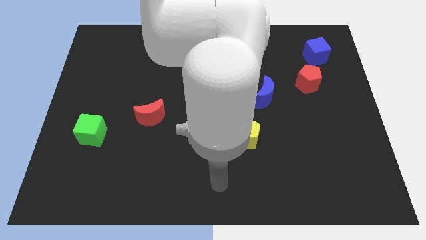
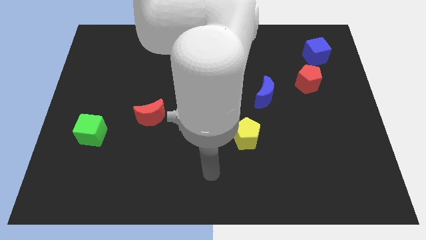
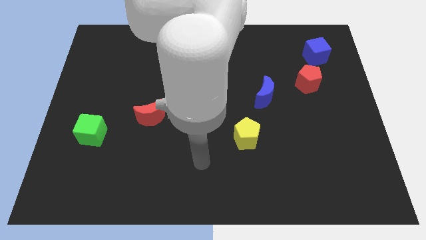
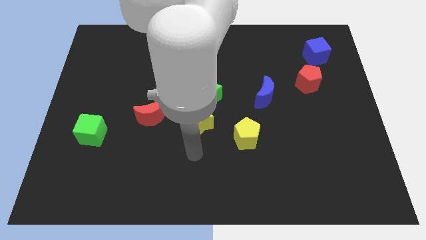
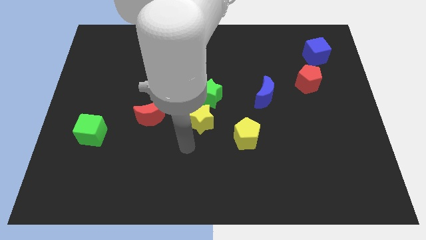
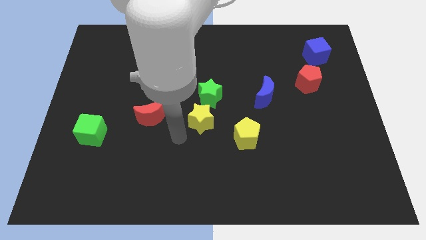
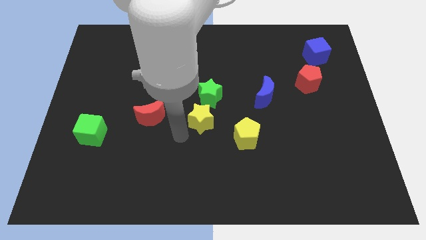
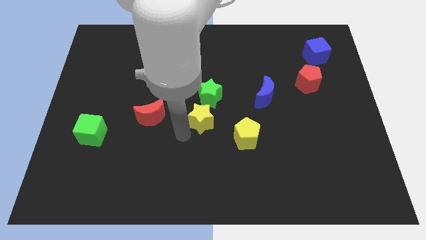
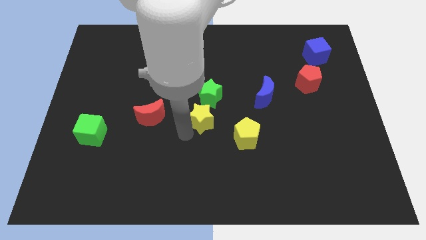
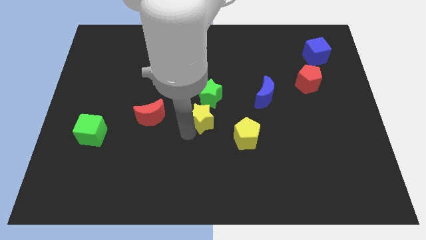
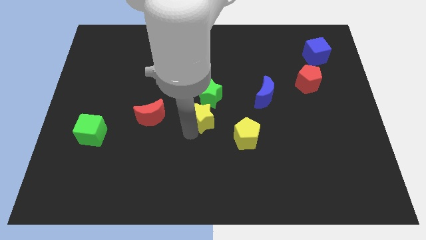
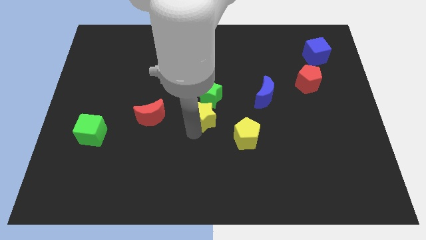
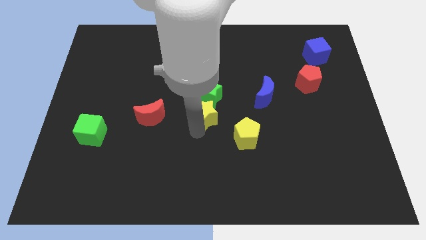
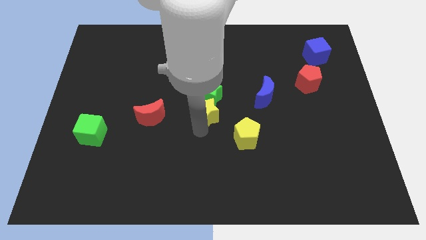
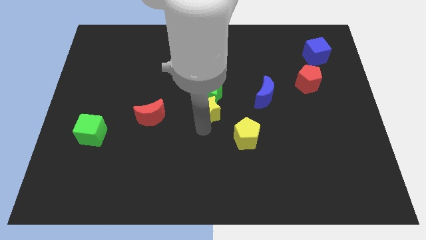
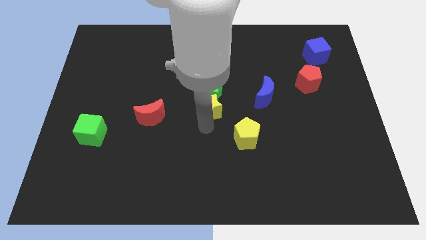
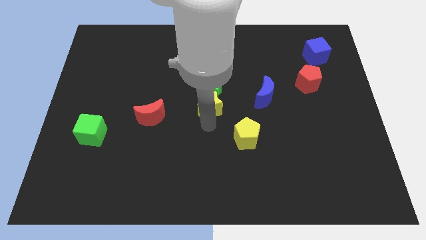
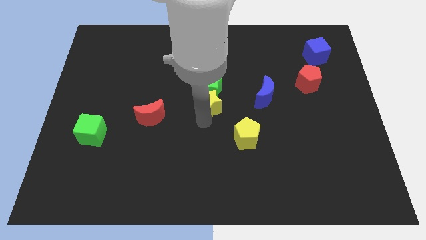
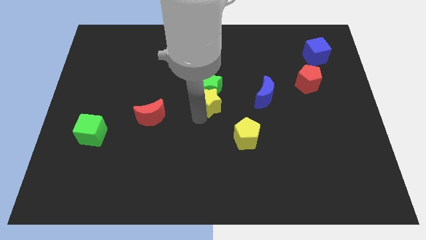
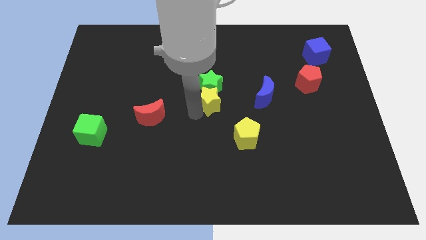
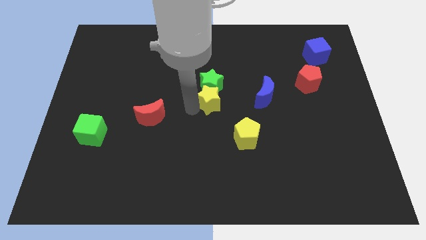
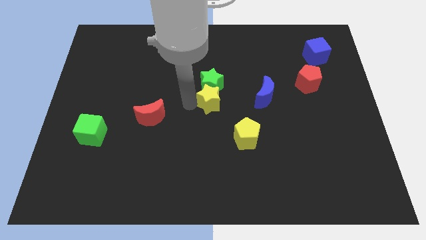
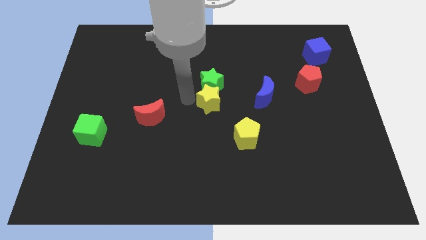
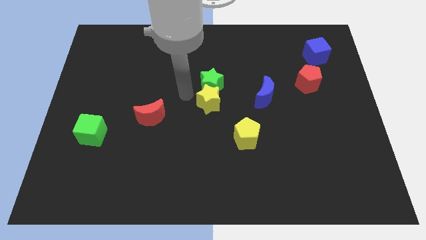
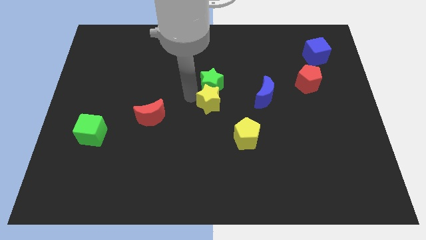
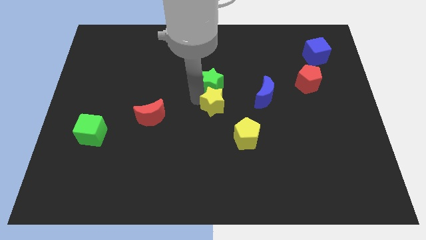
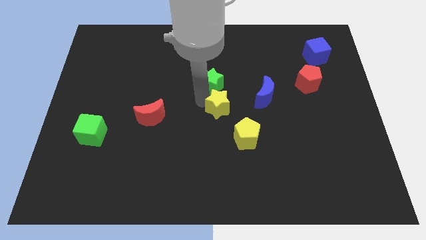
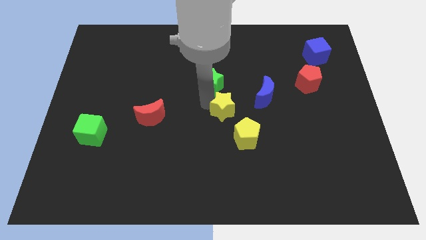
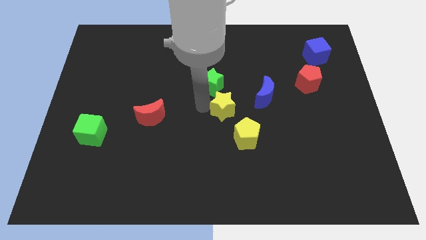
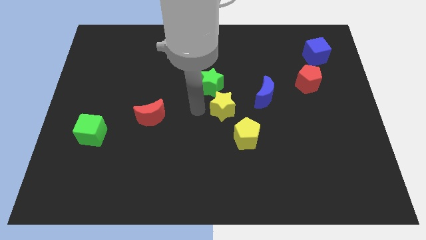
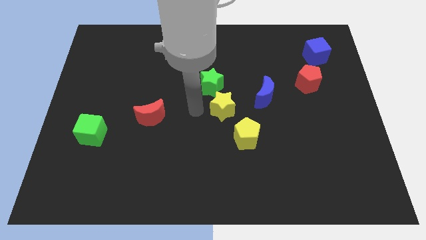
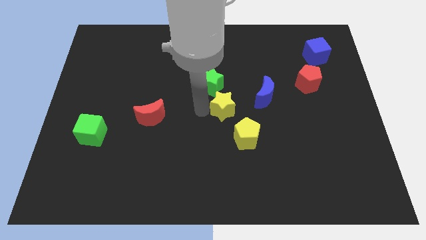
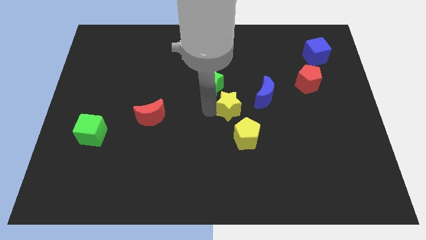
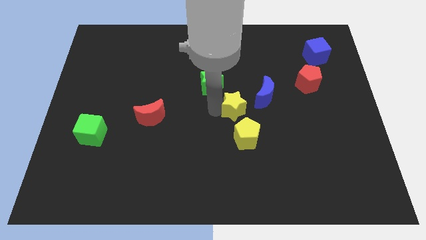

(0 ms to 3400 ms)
move the yellow star a bit right

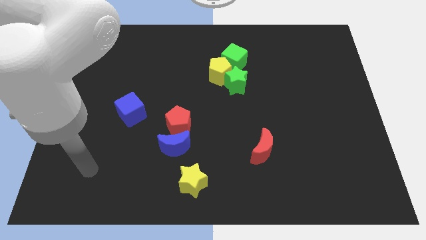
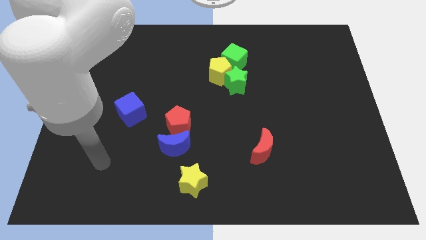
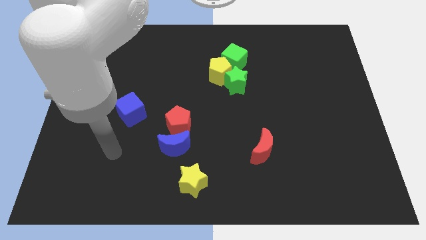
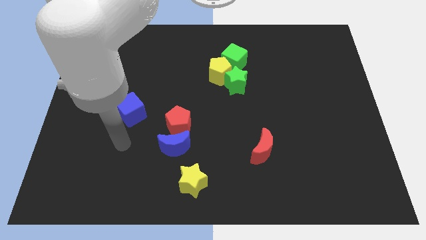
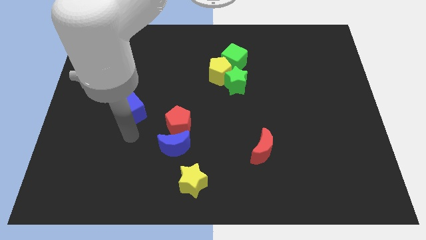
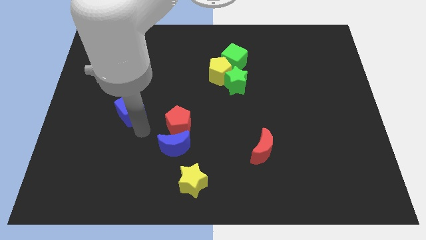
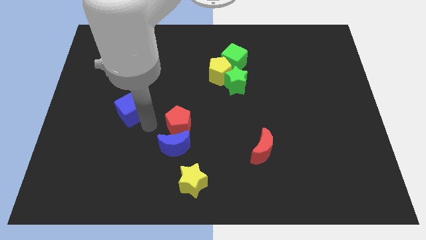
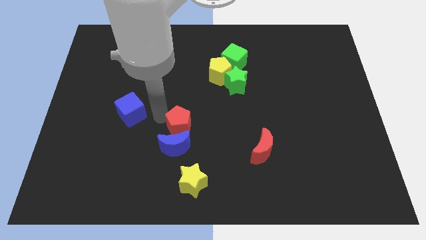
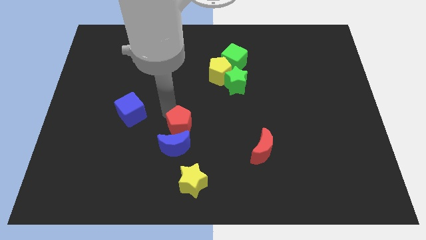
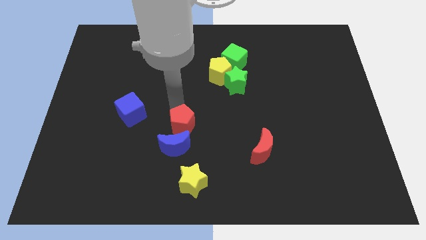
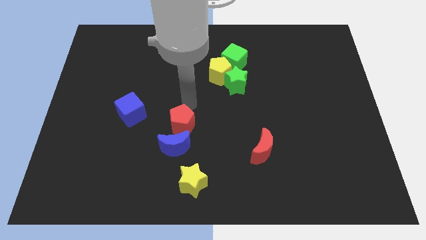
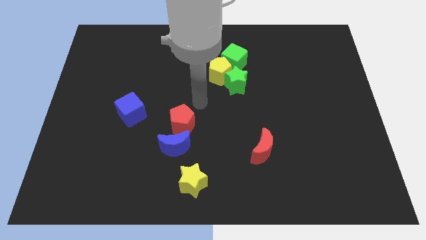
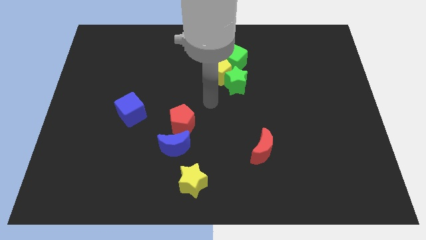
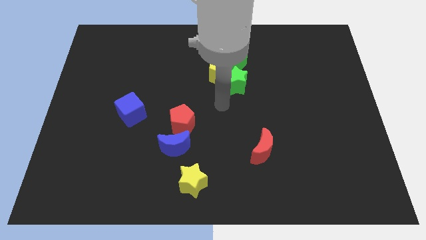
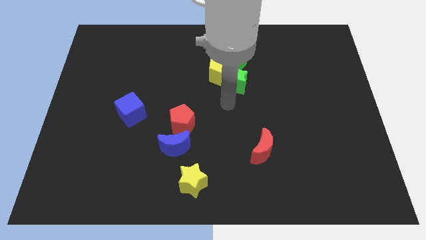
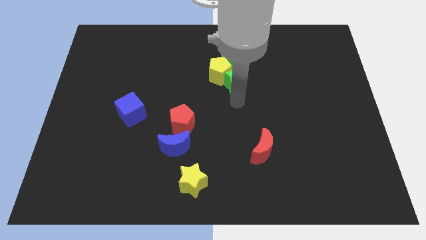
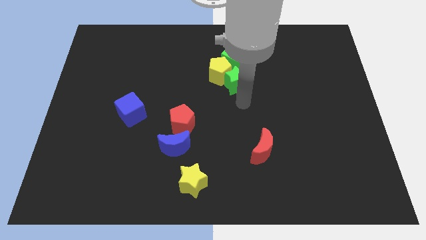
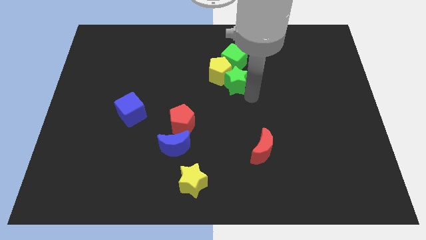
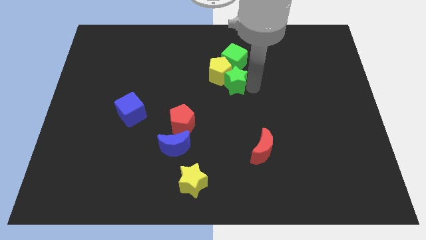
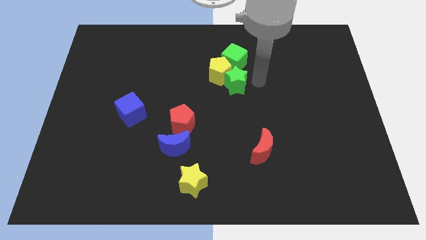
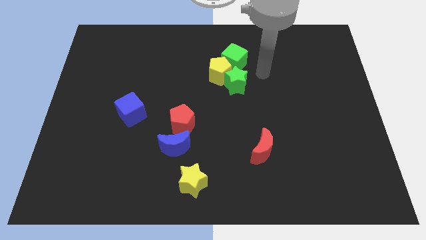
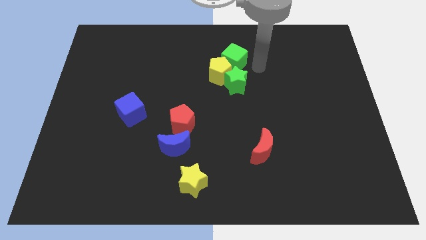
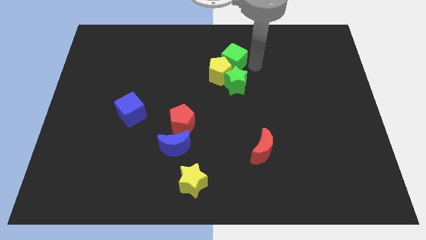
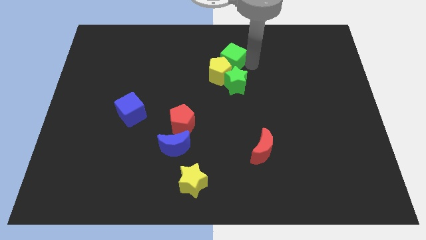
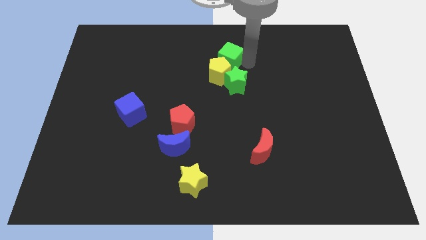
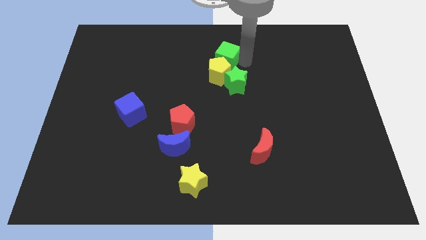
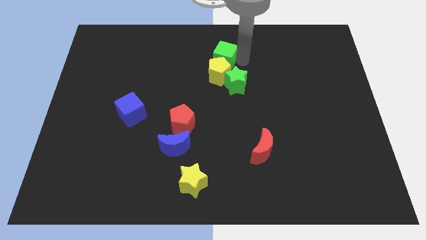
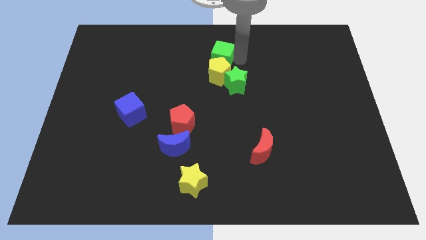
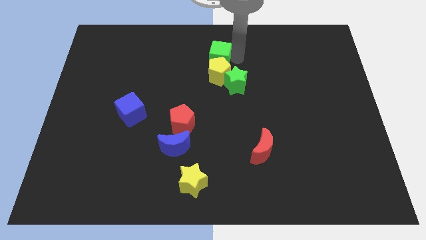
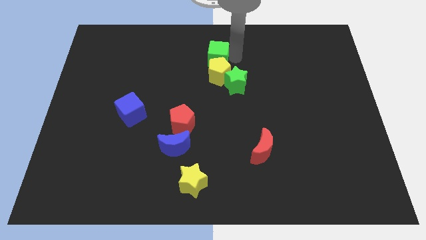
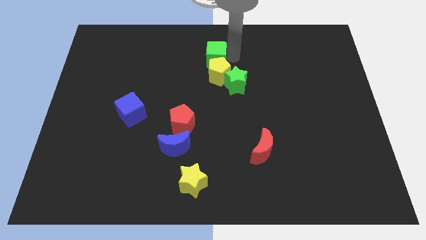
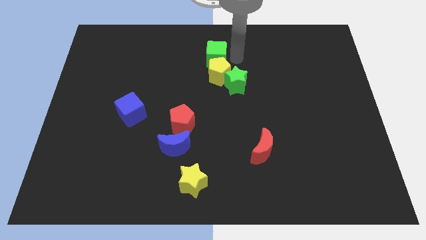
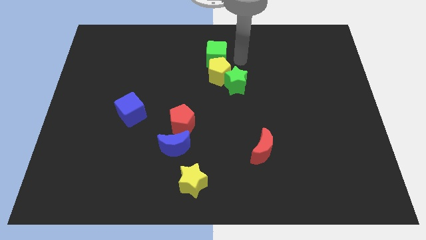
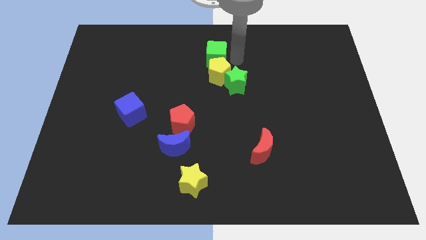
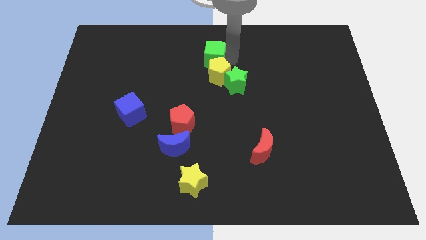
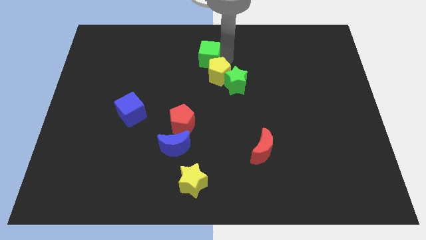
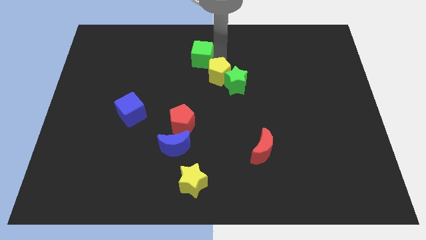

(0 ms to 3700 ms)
slightly move the green cube to the left

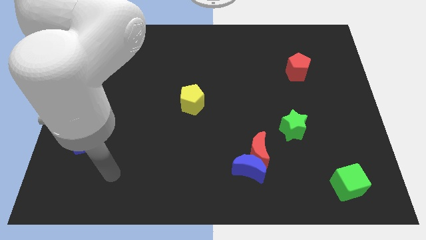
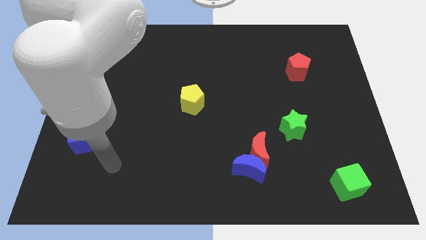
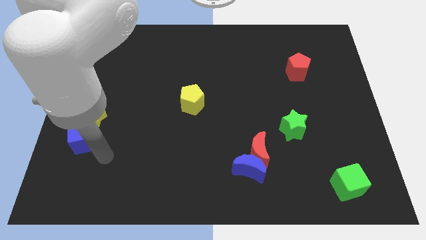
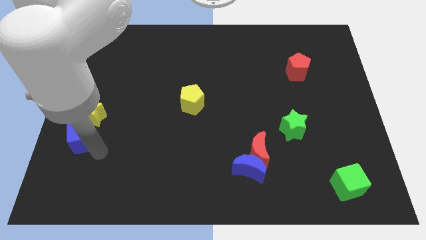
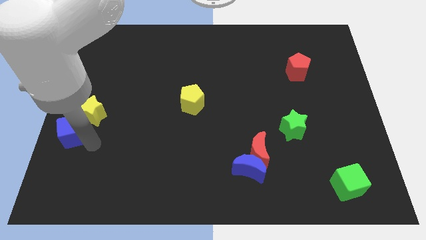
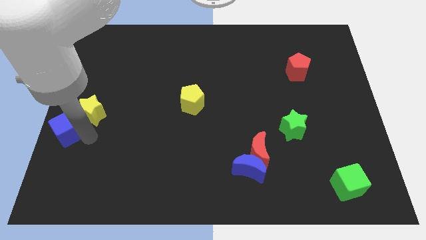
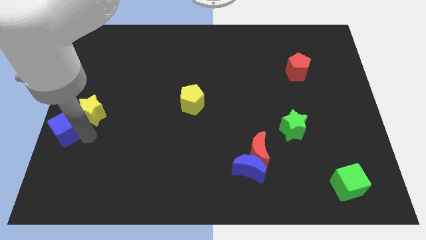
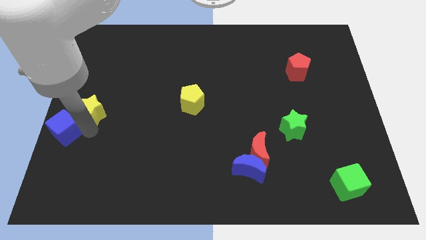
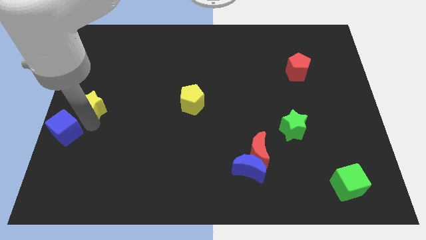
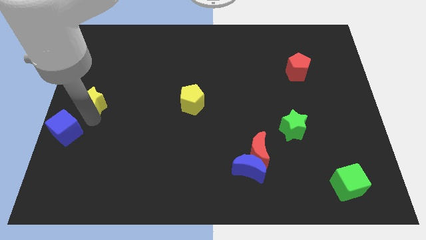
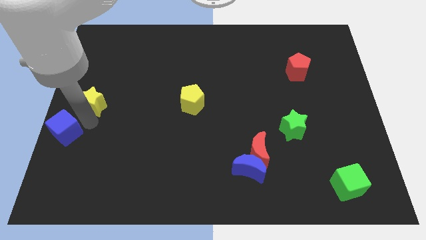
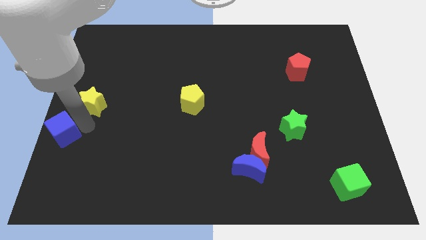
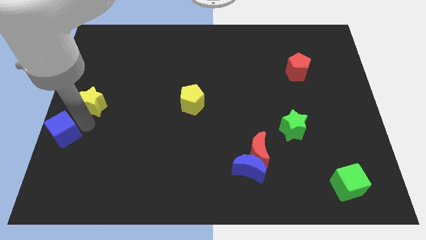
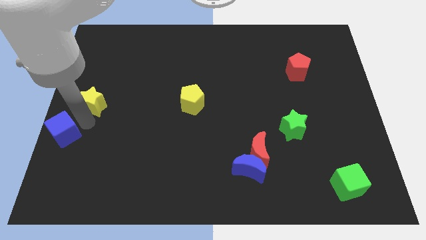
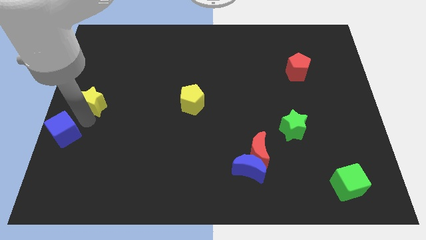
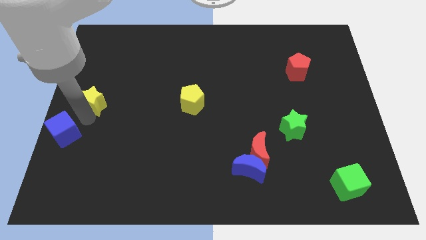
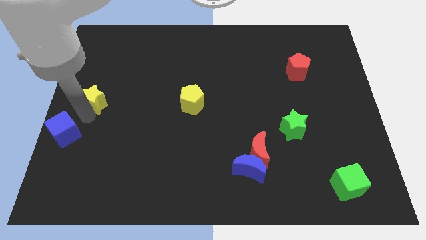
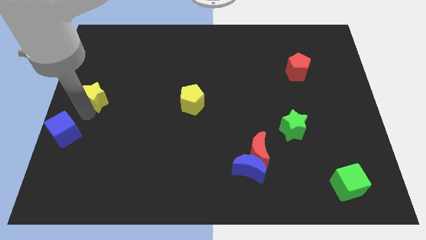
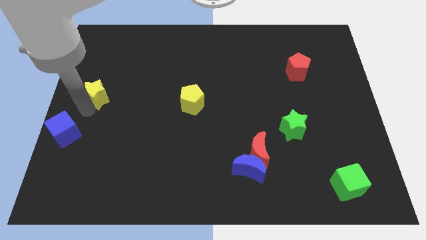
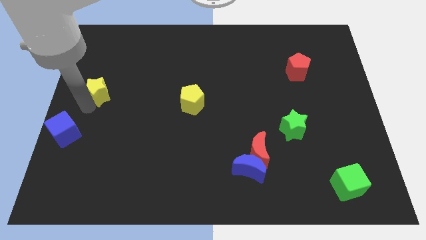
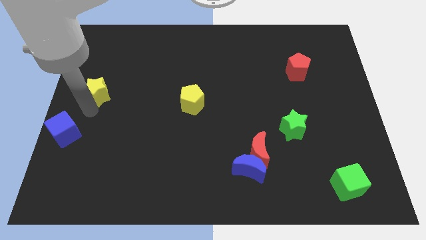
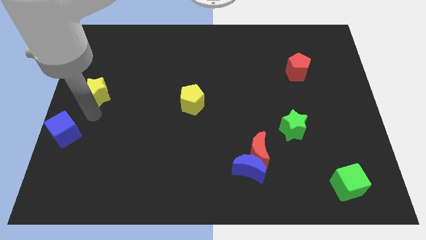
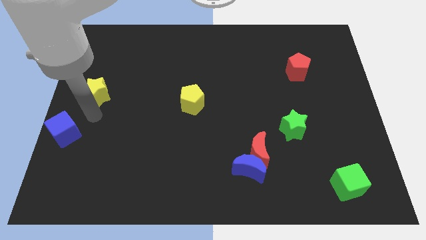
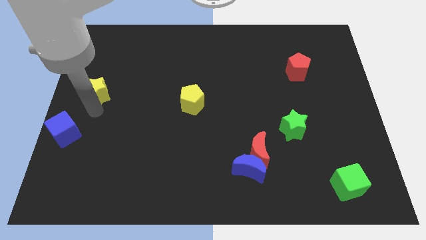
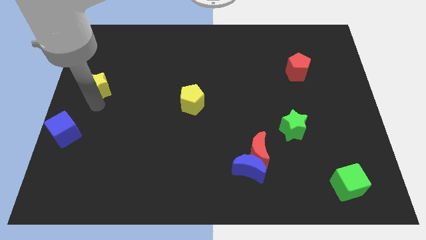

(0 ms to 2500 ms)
slide the yellow star somewhat up
